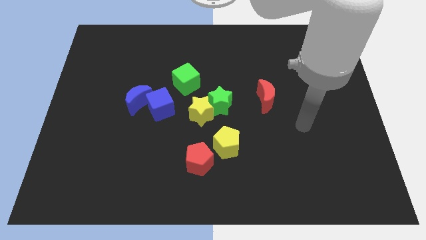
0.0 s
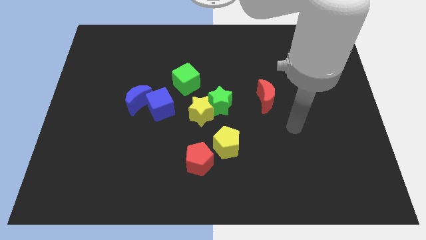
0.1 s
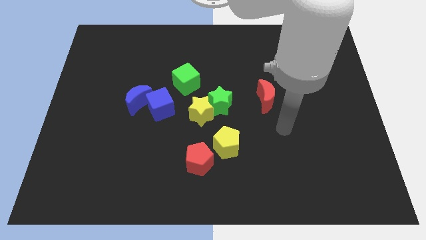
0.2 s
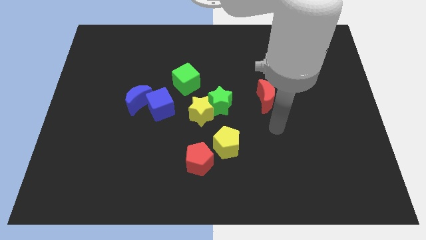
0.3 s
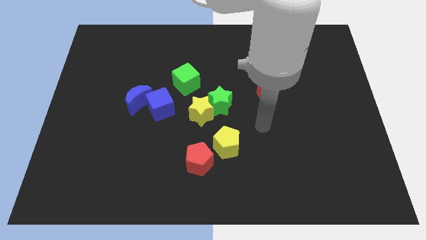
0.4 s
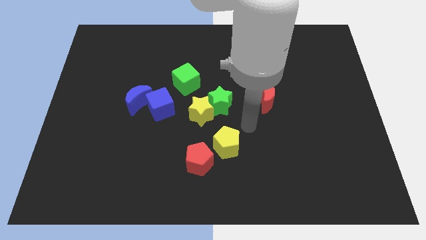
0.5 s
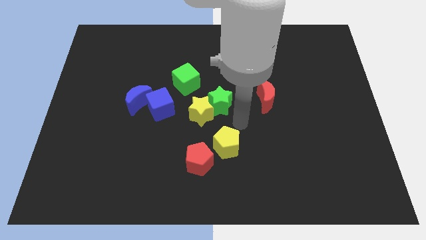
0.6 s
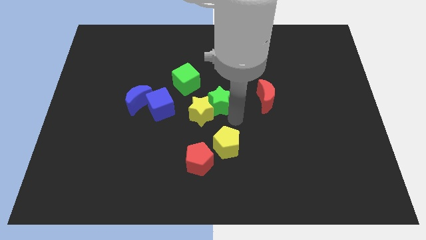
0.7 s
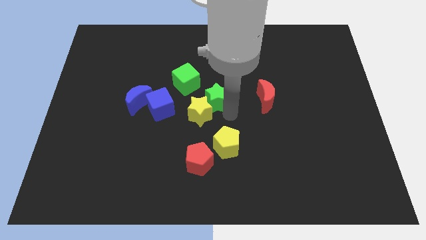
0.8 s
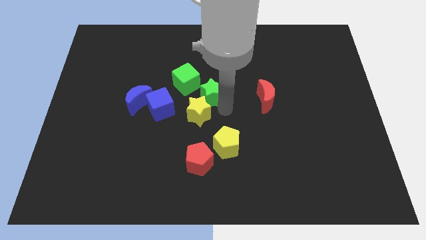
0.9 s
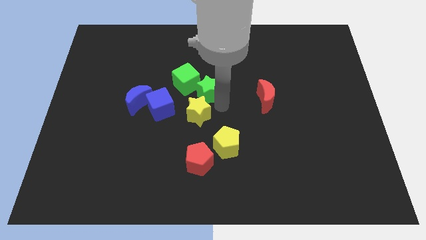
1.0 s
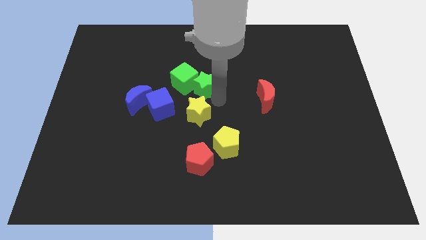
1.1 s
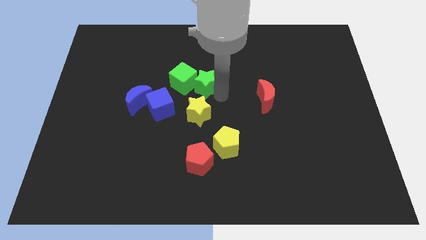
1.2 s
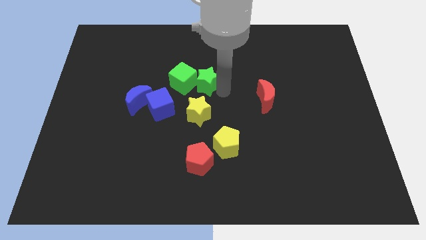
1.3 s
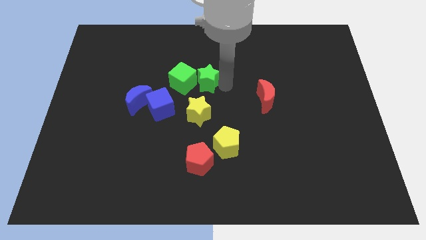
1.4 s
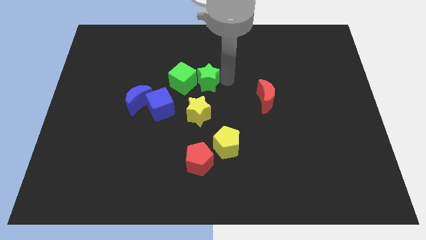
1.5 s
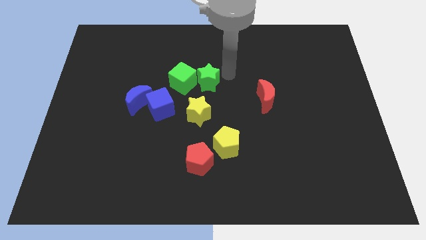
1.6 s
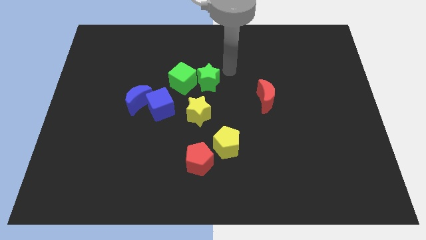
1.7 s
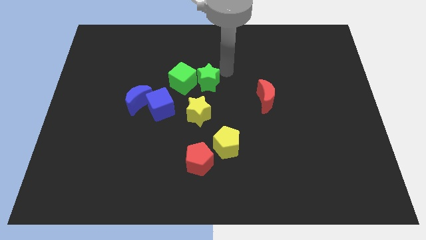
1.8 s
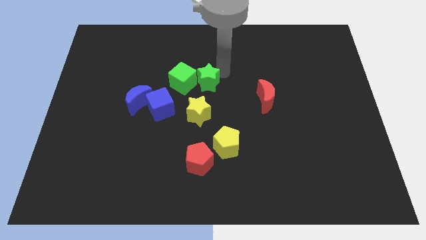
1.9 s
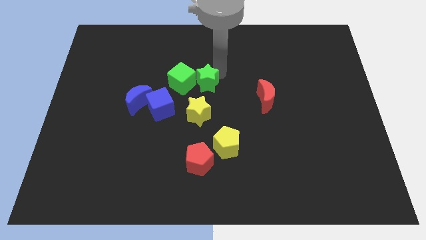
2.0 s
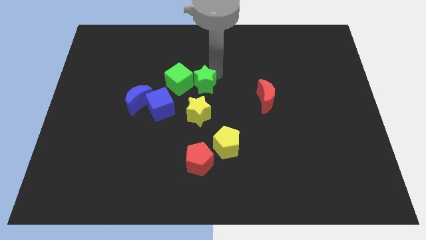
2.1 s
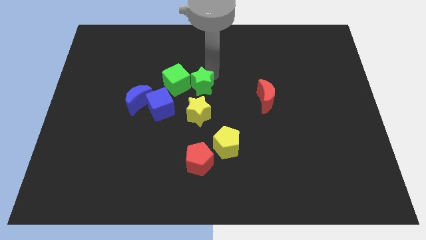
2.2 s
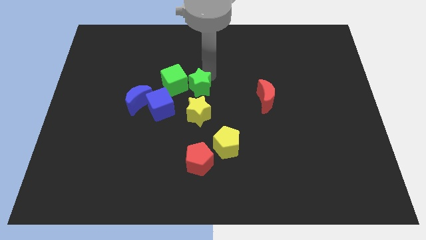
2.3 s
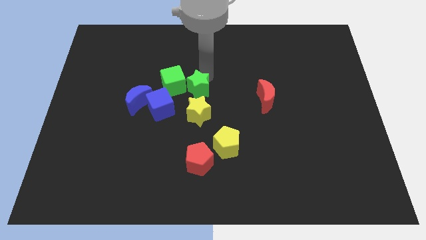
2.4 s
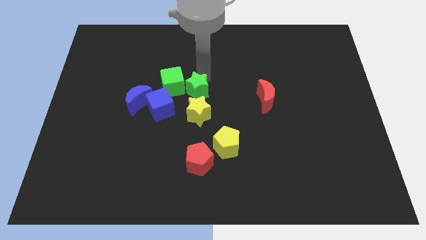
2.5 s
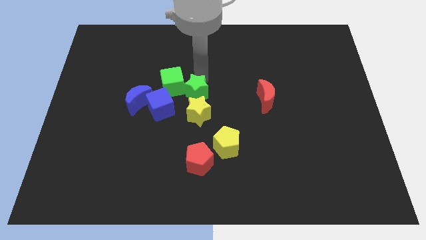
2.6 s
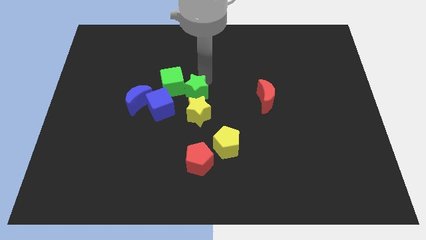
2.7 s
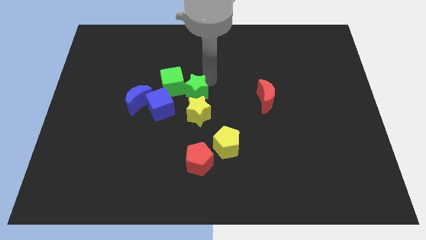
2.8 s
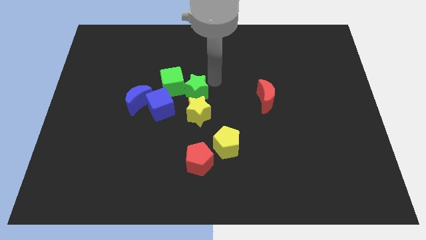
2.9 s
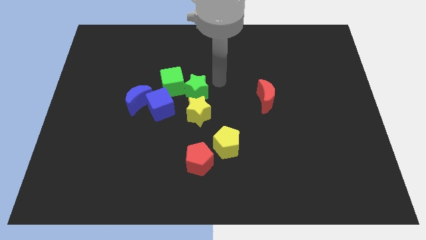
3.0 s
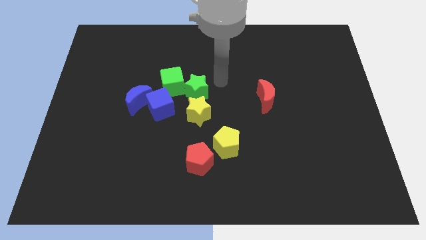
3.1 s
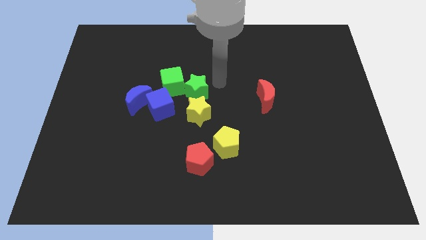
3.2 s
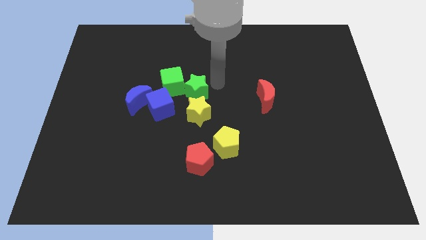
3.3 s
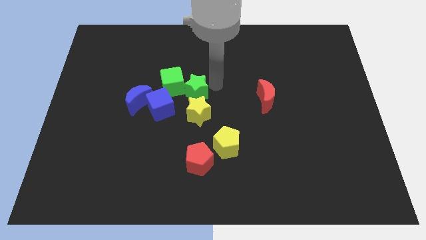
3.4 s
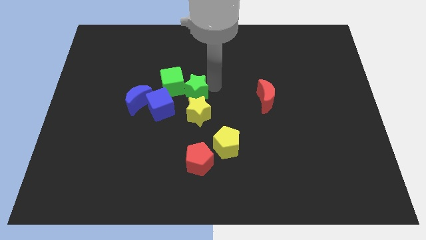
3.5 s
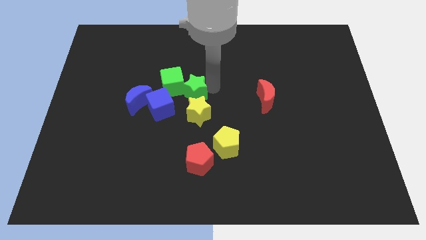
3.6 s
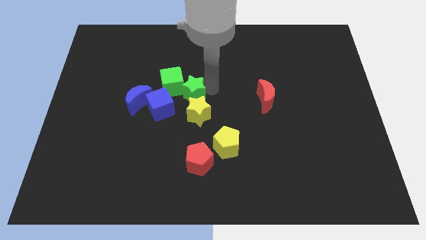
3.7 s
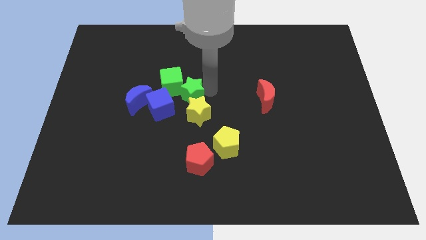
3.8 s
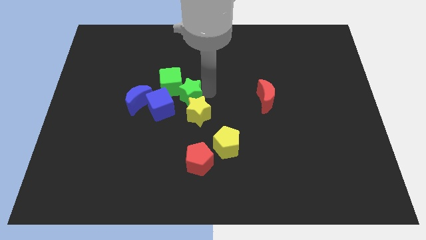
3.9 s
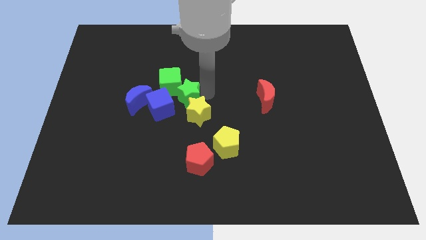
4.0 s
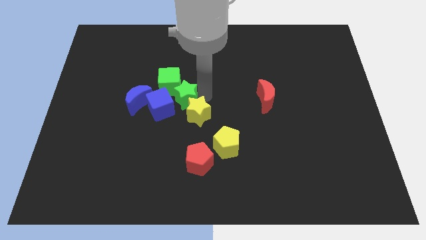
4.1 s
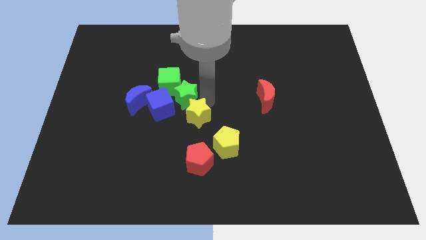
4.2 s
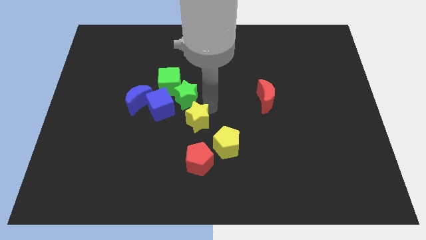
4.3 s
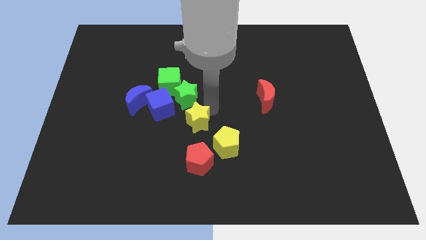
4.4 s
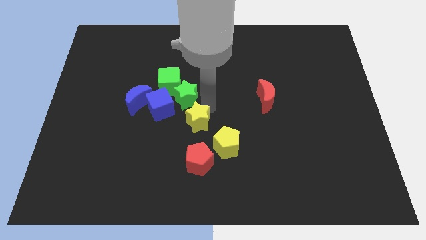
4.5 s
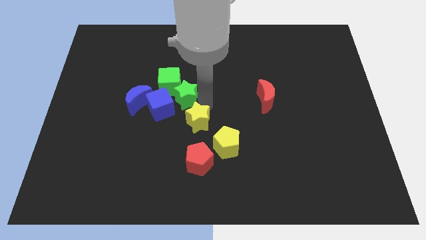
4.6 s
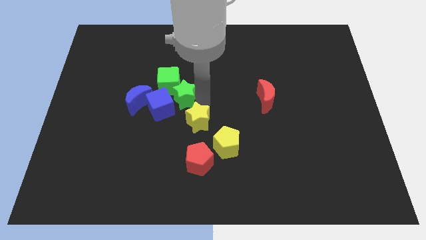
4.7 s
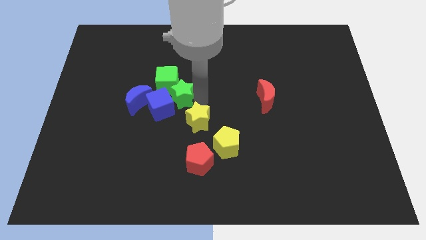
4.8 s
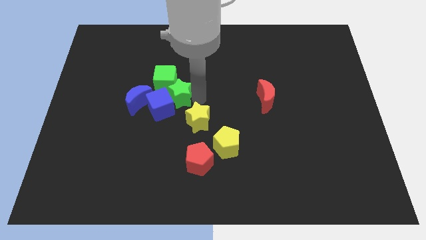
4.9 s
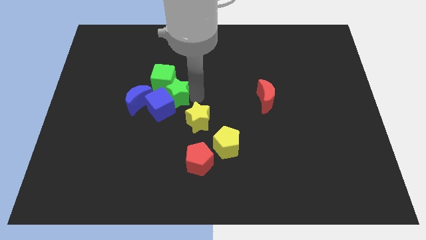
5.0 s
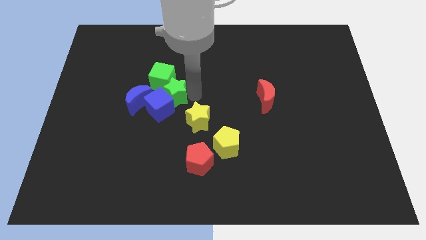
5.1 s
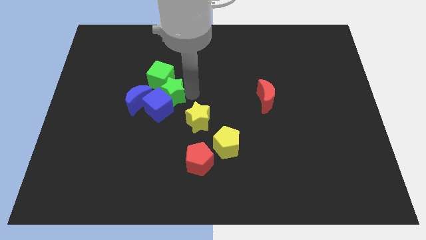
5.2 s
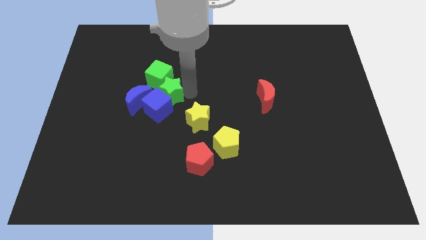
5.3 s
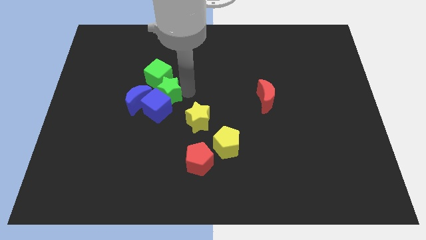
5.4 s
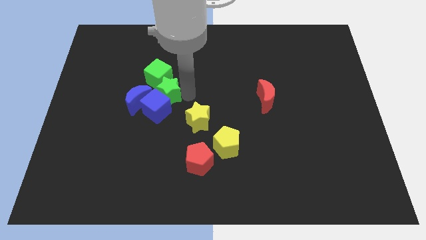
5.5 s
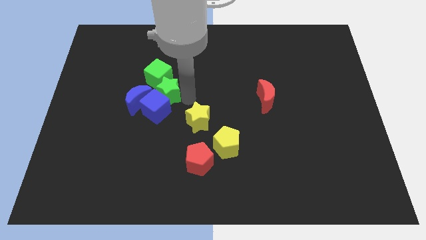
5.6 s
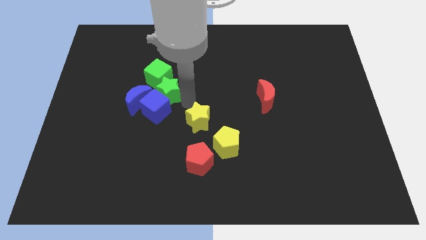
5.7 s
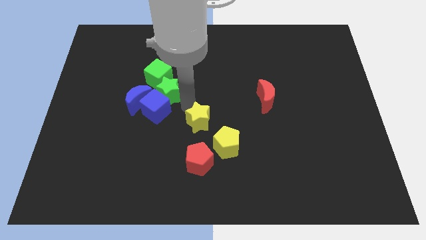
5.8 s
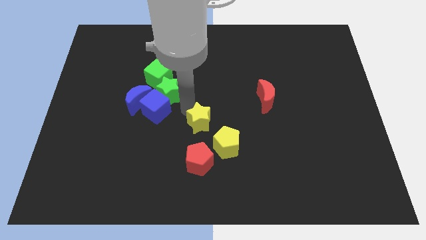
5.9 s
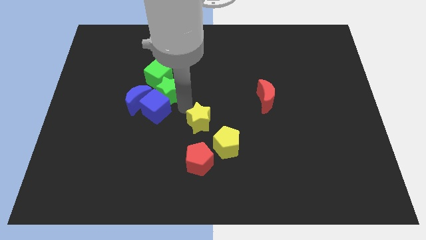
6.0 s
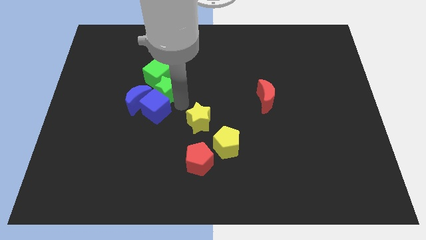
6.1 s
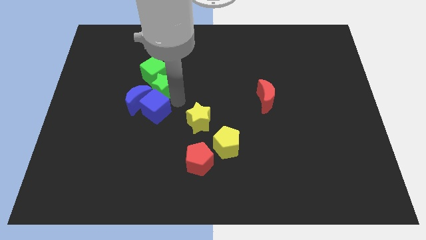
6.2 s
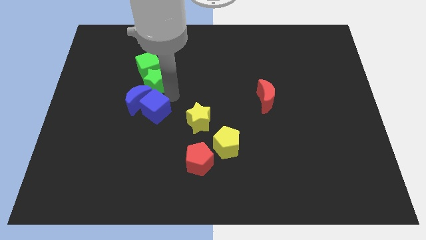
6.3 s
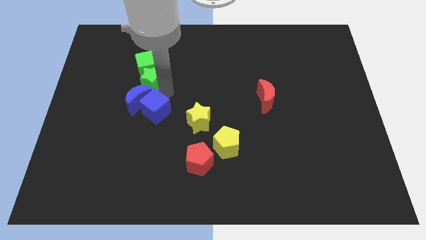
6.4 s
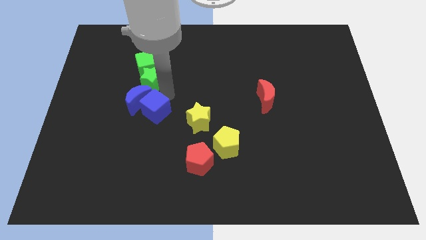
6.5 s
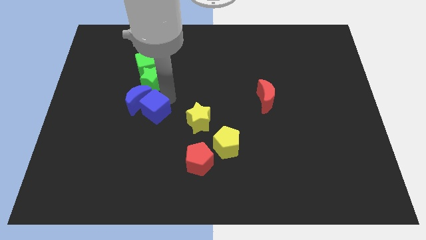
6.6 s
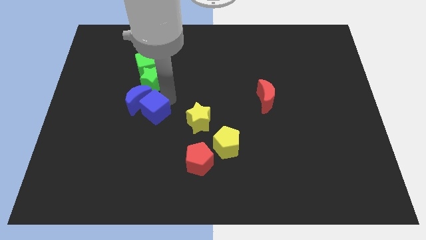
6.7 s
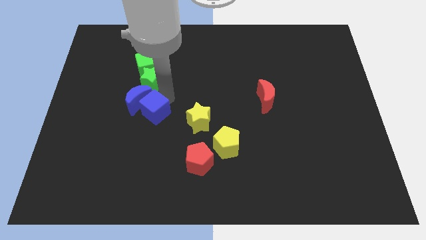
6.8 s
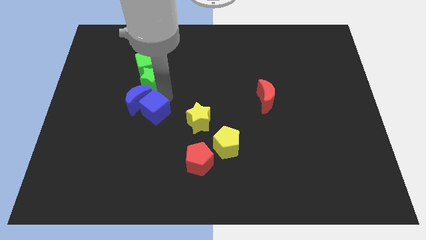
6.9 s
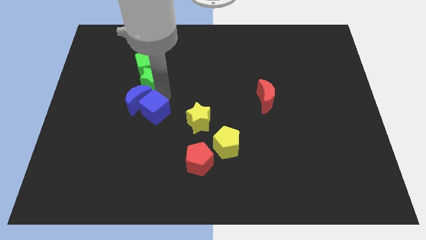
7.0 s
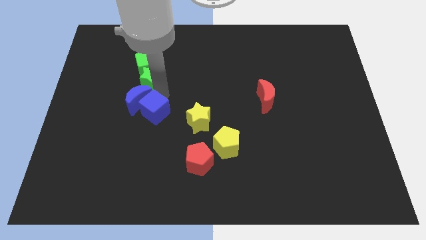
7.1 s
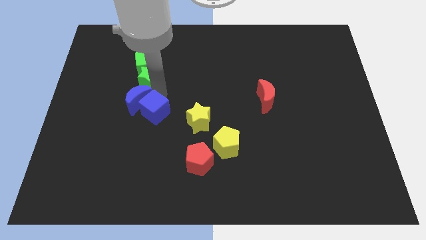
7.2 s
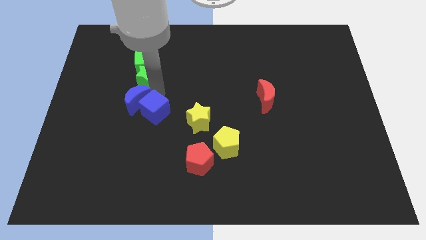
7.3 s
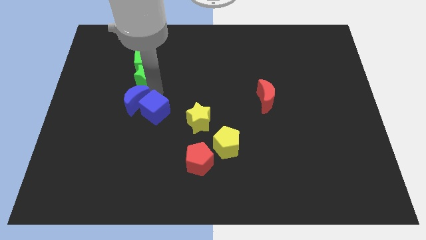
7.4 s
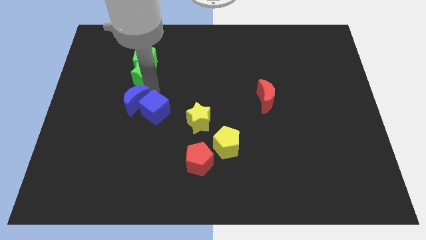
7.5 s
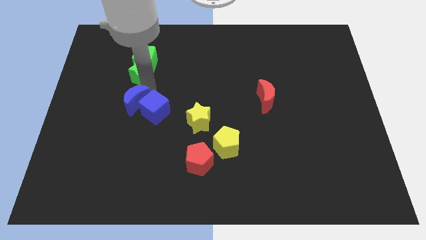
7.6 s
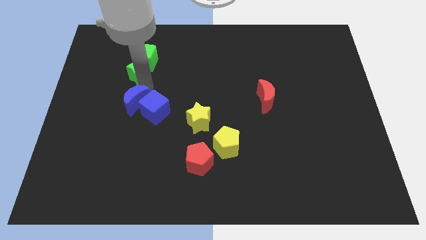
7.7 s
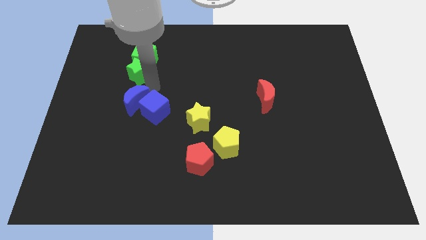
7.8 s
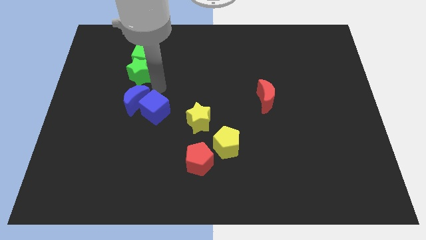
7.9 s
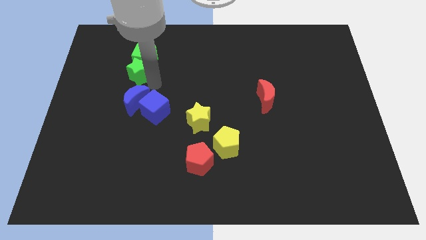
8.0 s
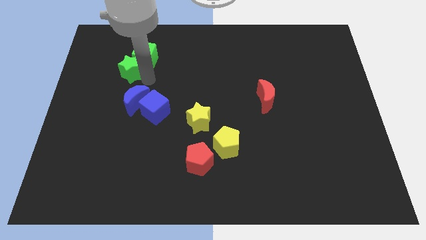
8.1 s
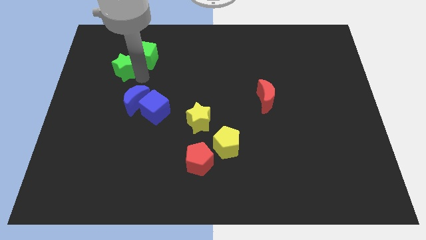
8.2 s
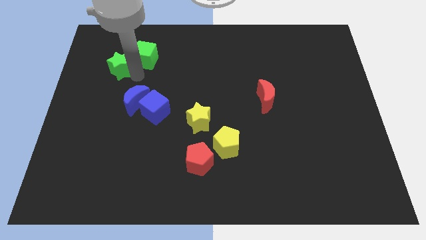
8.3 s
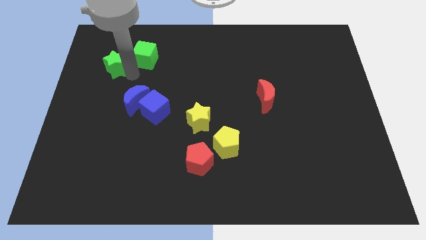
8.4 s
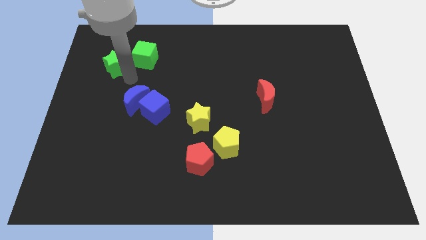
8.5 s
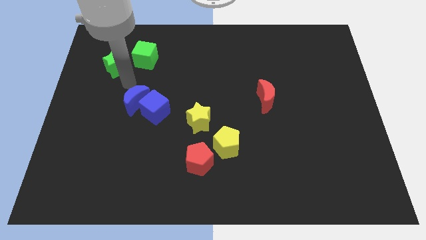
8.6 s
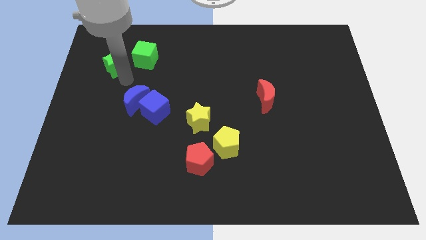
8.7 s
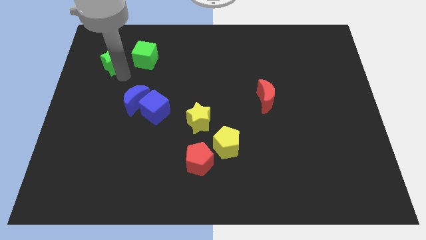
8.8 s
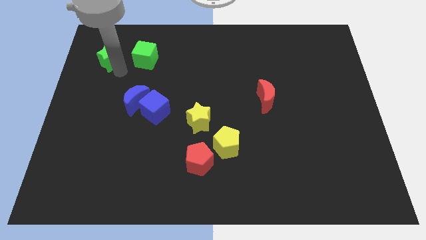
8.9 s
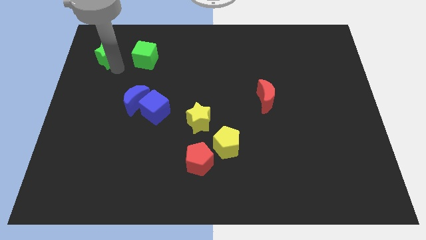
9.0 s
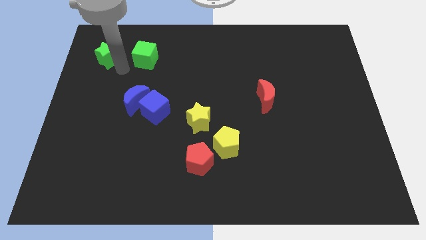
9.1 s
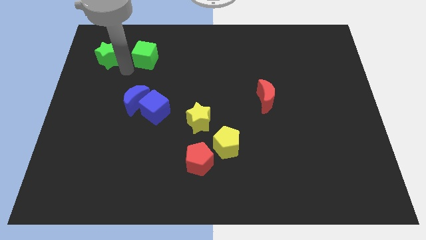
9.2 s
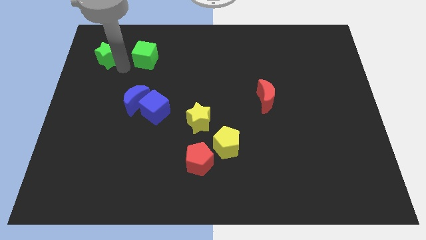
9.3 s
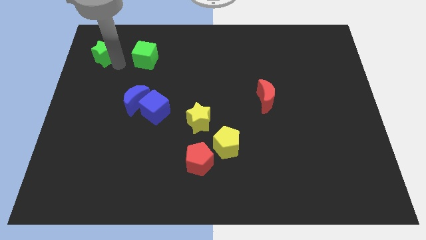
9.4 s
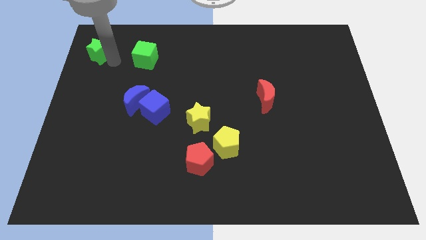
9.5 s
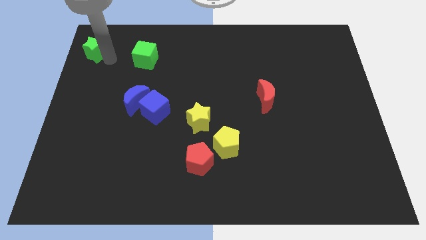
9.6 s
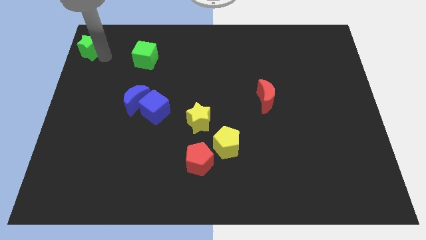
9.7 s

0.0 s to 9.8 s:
slide the green star to the top left corner
